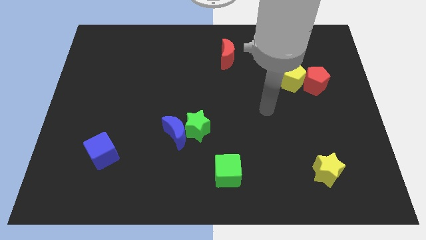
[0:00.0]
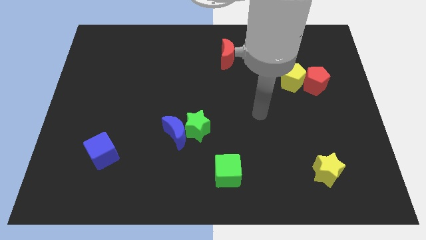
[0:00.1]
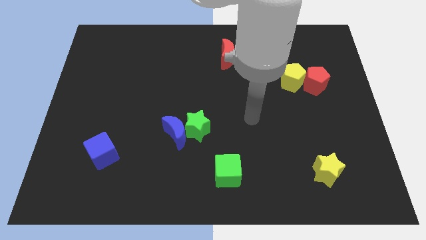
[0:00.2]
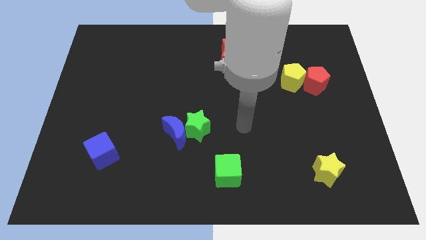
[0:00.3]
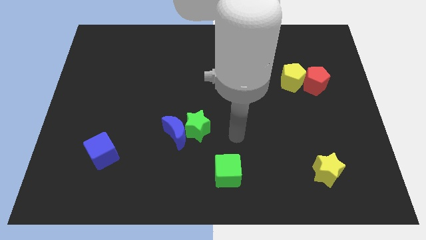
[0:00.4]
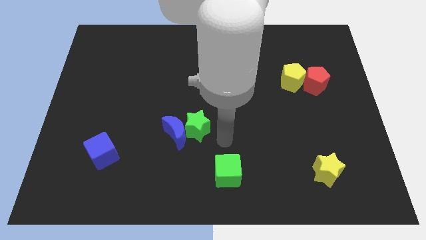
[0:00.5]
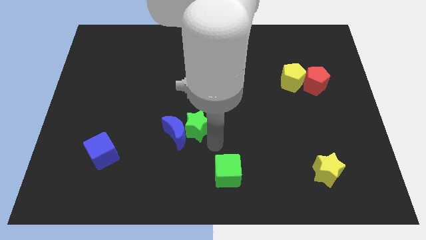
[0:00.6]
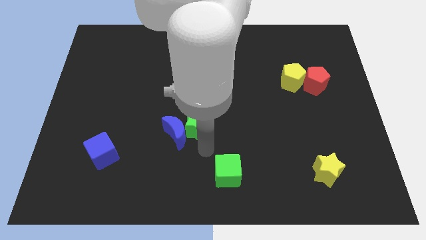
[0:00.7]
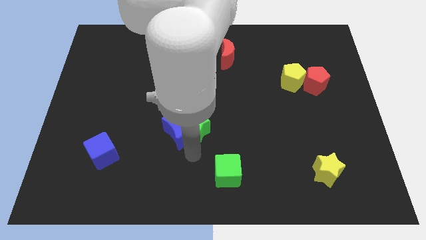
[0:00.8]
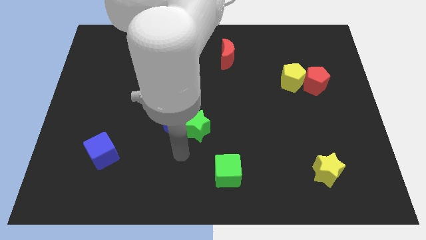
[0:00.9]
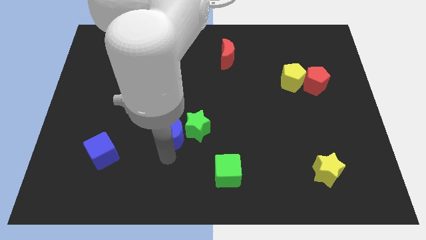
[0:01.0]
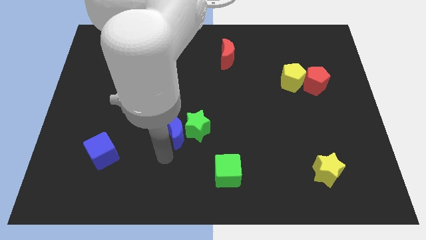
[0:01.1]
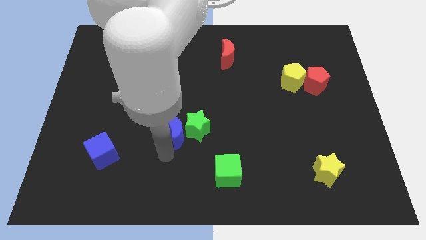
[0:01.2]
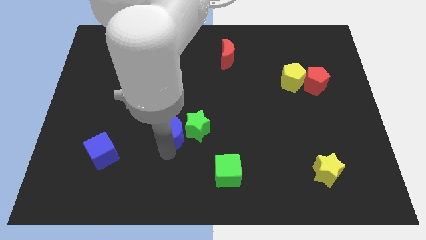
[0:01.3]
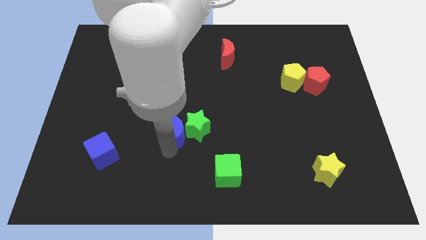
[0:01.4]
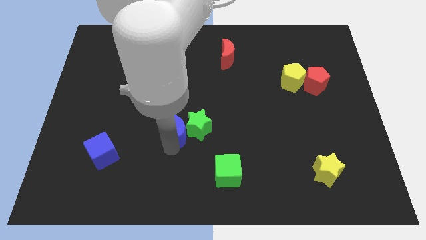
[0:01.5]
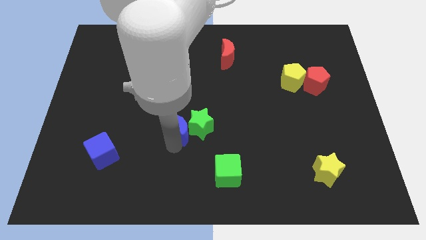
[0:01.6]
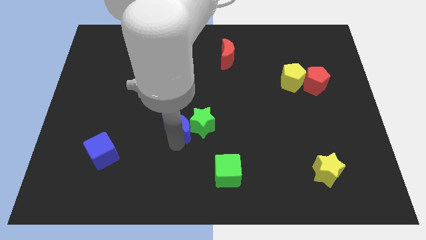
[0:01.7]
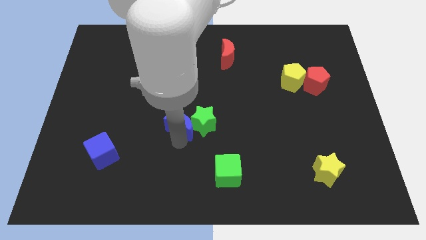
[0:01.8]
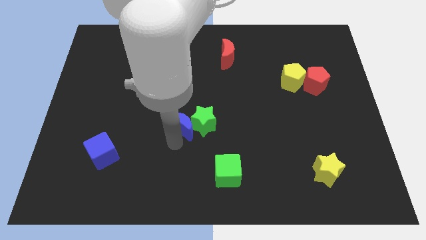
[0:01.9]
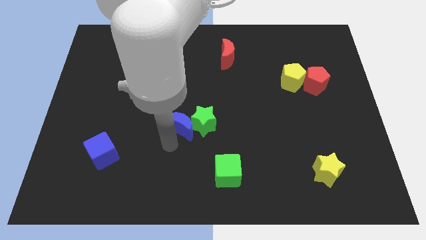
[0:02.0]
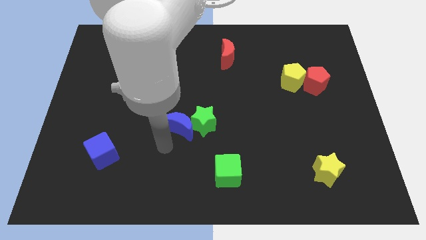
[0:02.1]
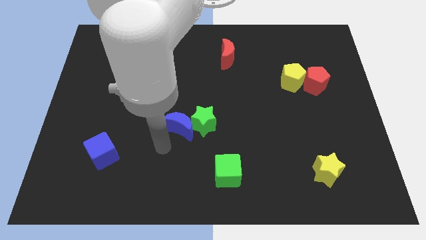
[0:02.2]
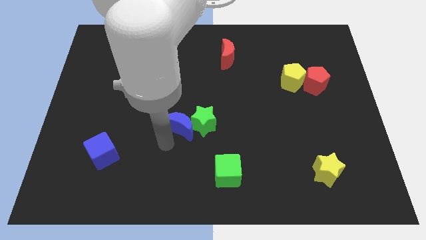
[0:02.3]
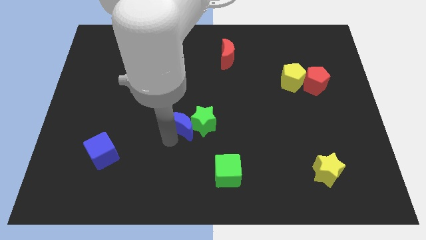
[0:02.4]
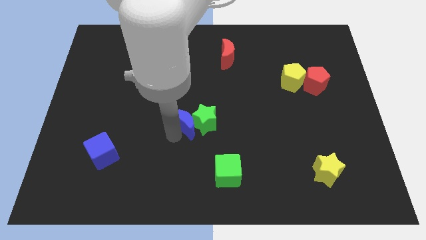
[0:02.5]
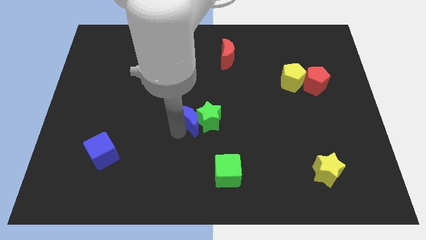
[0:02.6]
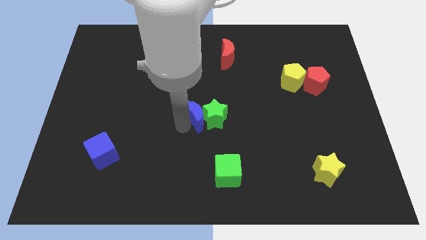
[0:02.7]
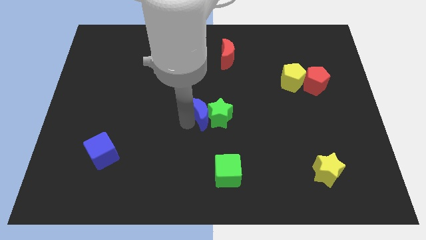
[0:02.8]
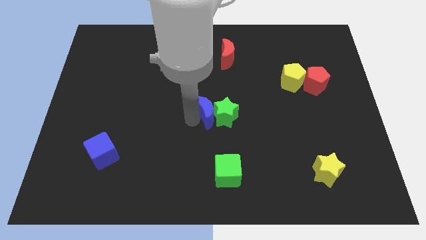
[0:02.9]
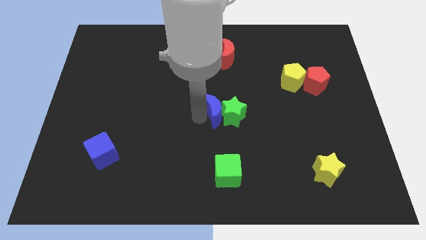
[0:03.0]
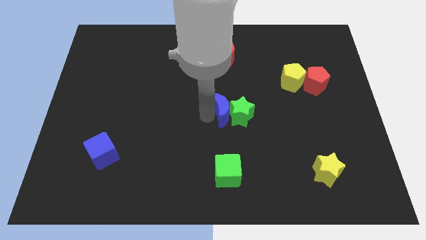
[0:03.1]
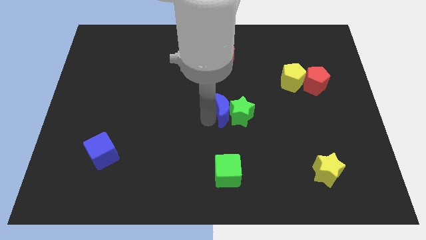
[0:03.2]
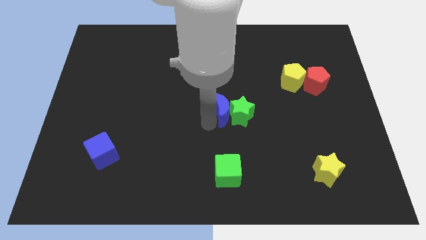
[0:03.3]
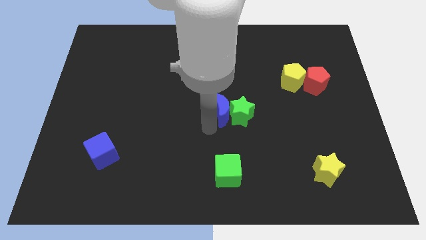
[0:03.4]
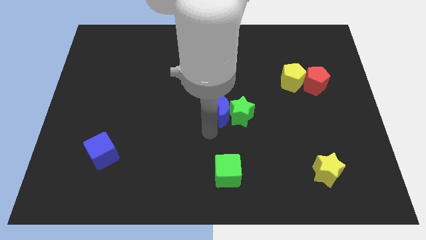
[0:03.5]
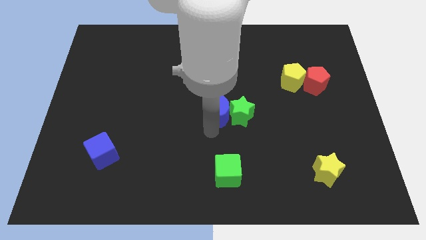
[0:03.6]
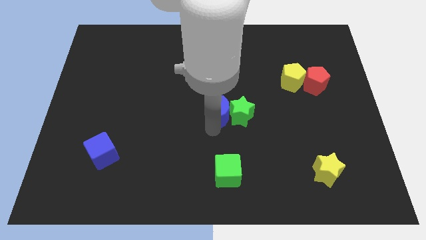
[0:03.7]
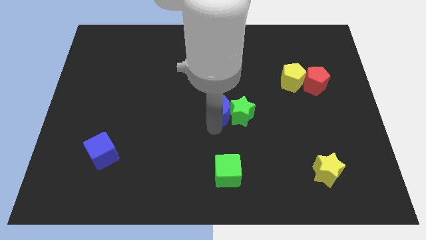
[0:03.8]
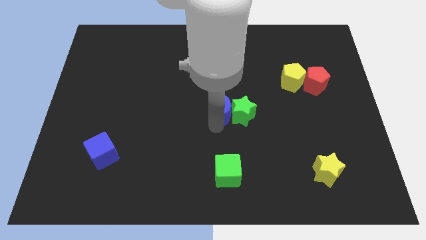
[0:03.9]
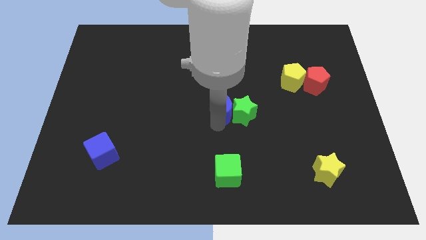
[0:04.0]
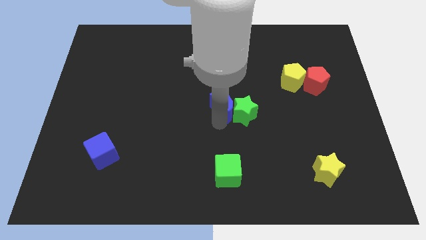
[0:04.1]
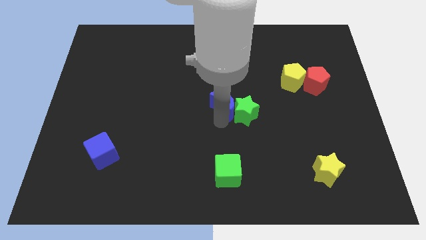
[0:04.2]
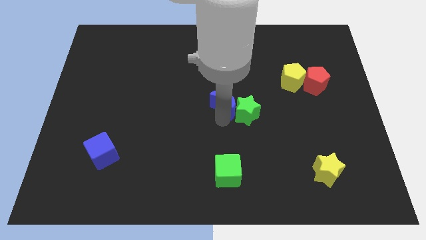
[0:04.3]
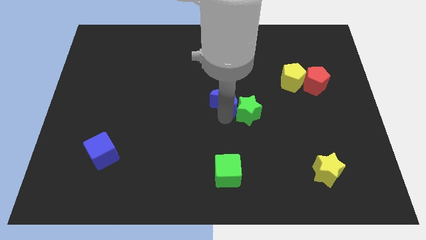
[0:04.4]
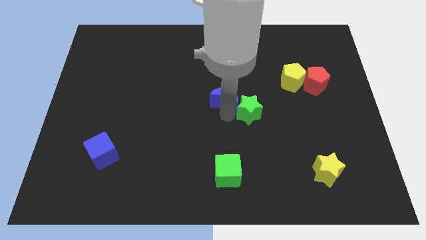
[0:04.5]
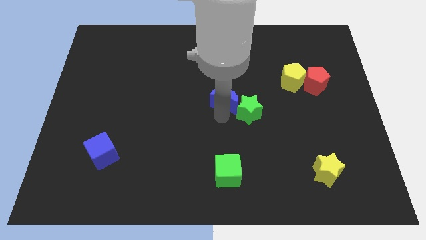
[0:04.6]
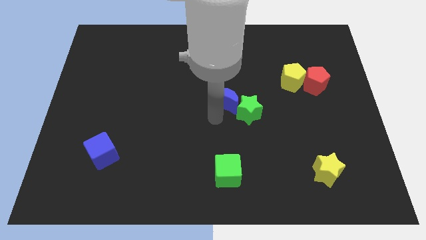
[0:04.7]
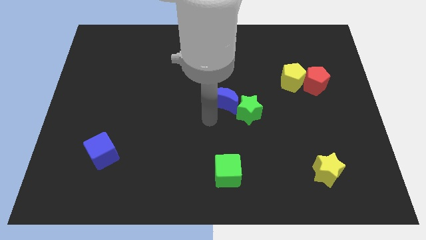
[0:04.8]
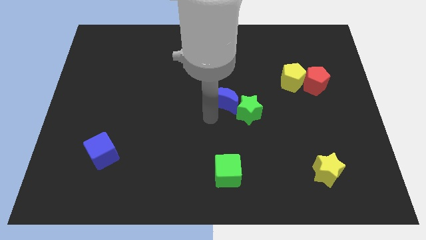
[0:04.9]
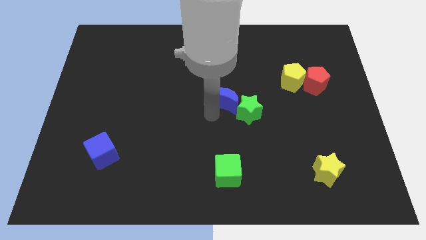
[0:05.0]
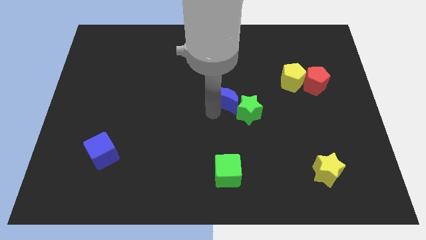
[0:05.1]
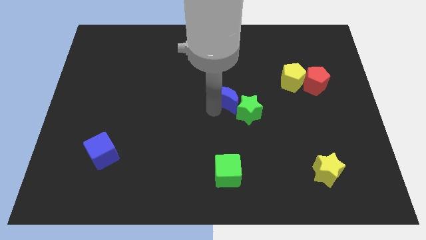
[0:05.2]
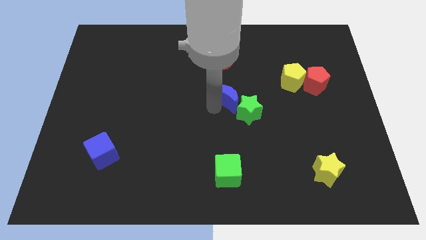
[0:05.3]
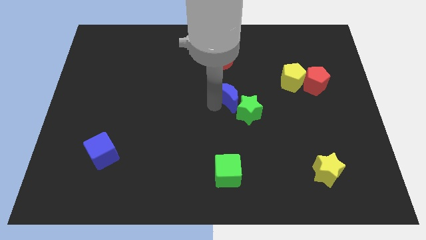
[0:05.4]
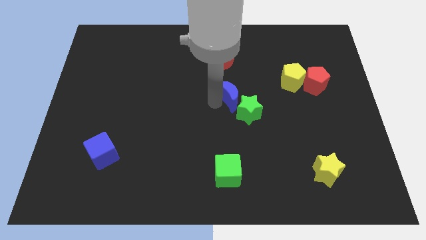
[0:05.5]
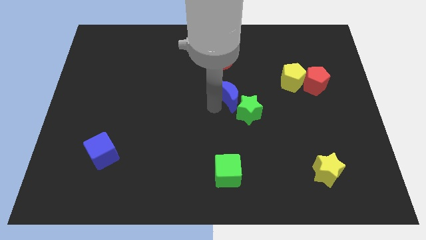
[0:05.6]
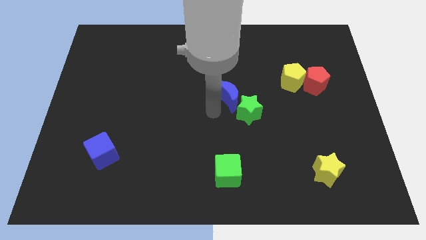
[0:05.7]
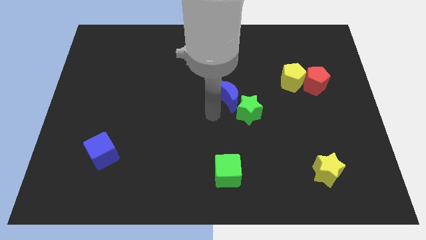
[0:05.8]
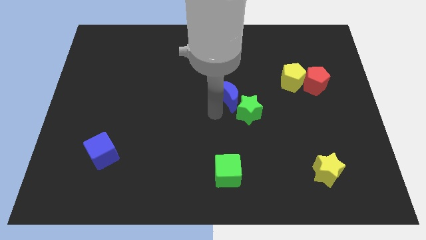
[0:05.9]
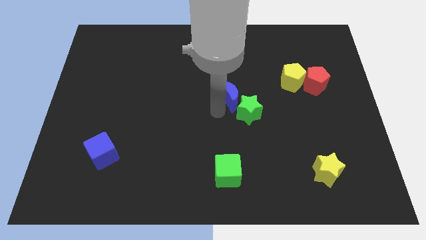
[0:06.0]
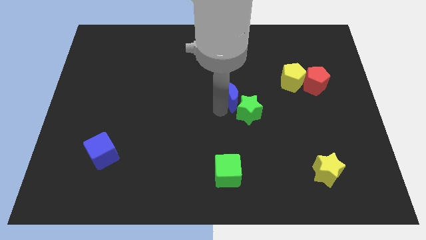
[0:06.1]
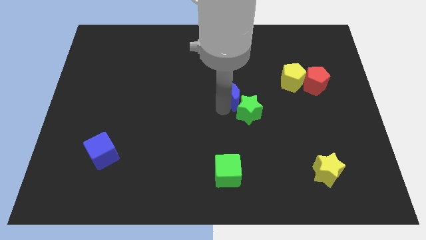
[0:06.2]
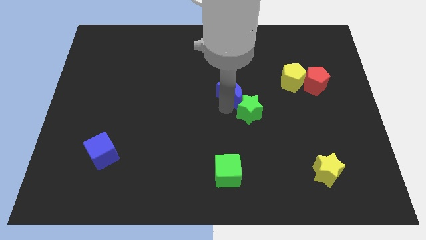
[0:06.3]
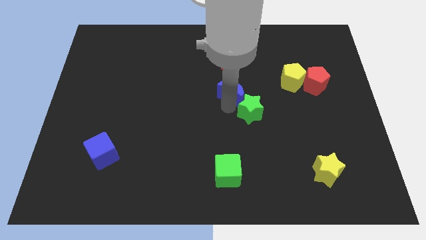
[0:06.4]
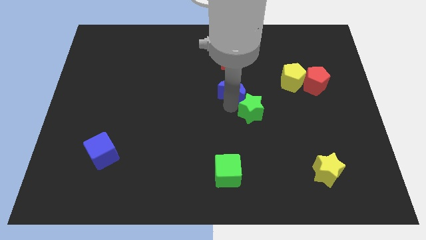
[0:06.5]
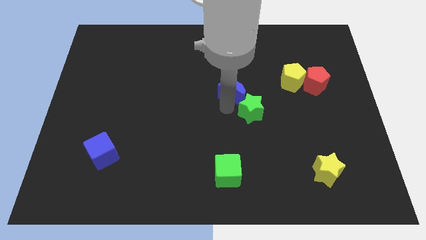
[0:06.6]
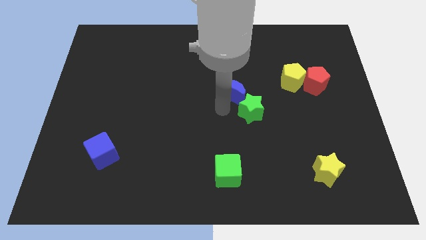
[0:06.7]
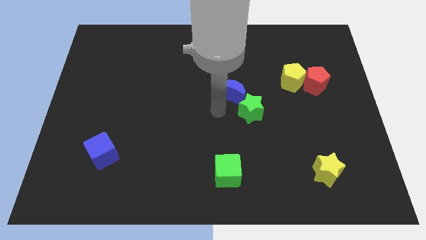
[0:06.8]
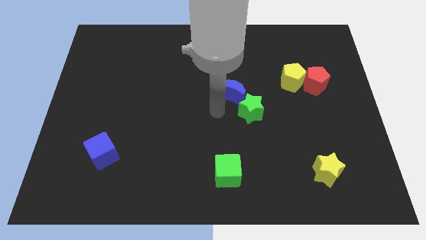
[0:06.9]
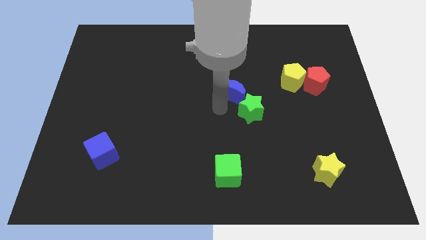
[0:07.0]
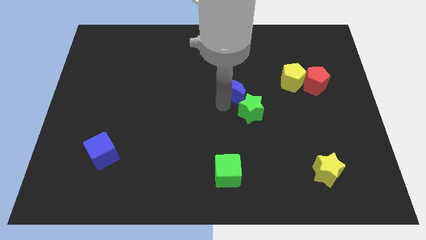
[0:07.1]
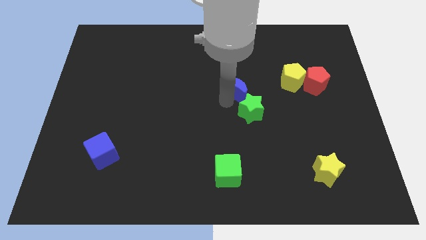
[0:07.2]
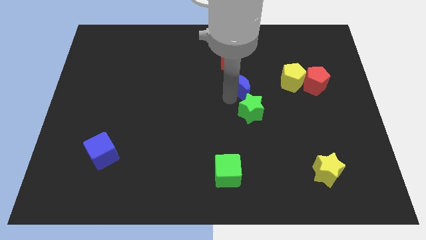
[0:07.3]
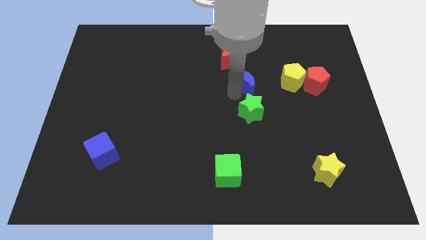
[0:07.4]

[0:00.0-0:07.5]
push the blue moon up and to the right

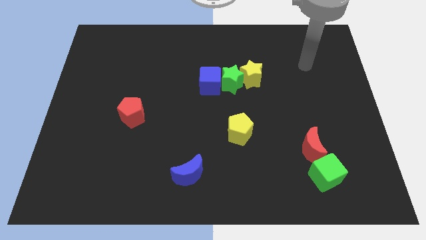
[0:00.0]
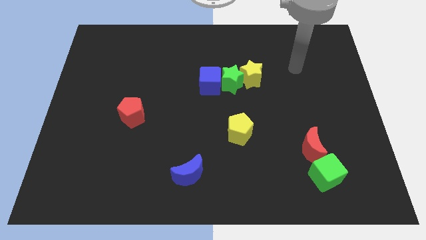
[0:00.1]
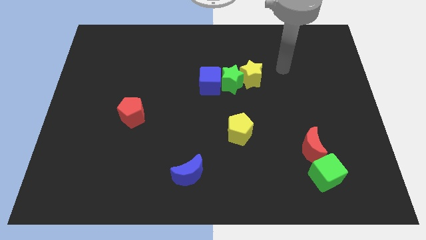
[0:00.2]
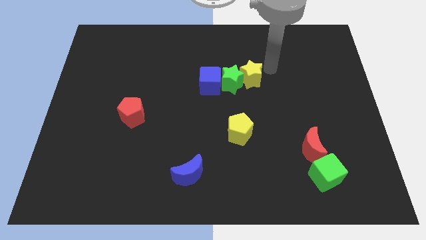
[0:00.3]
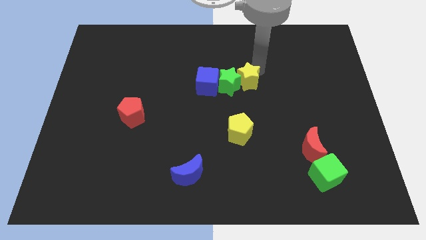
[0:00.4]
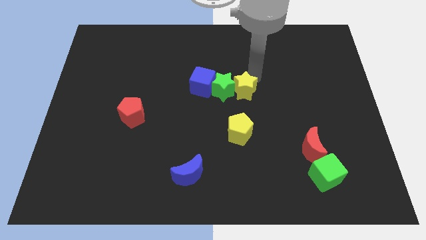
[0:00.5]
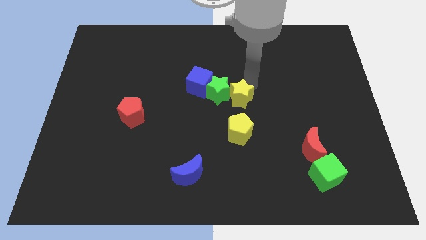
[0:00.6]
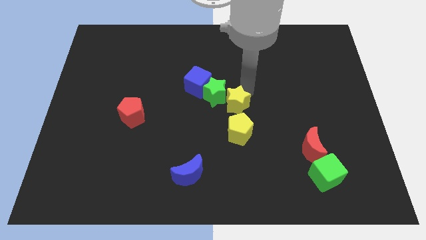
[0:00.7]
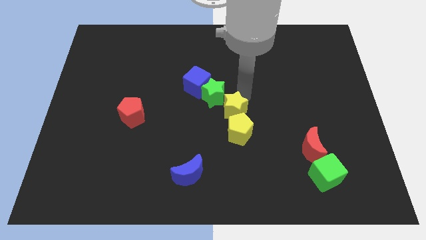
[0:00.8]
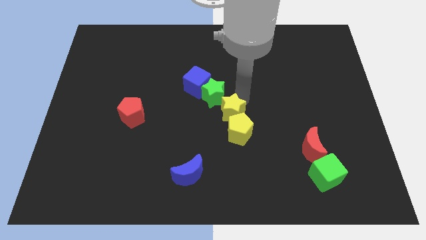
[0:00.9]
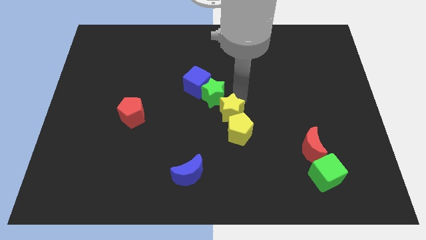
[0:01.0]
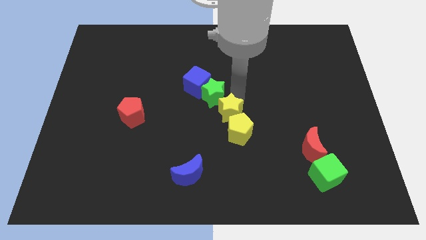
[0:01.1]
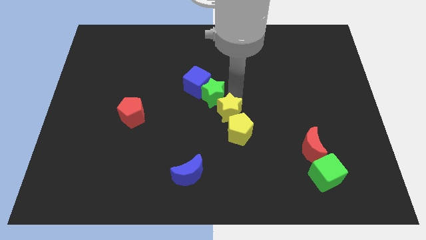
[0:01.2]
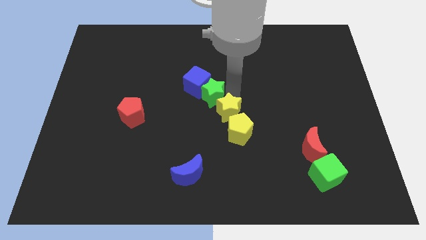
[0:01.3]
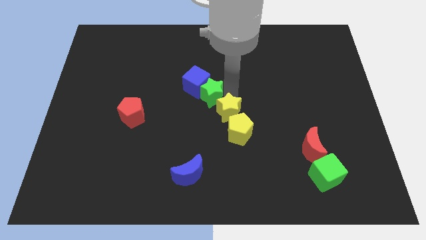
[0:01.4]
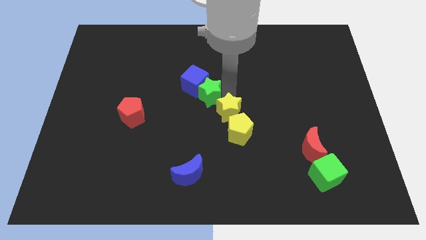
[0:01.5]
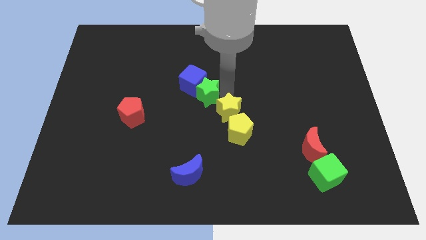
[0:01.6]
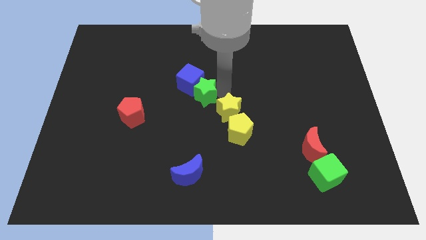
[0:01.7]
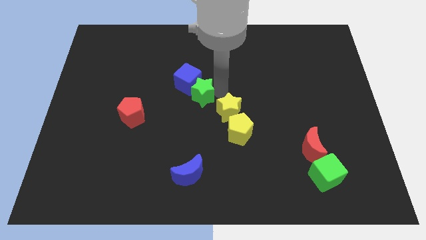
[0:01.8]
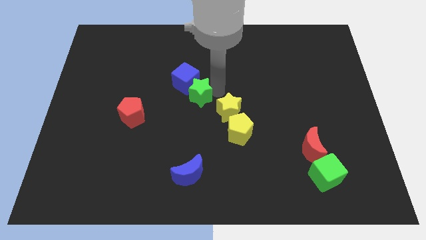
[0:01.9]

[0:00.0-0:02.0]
slightly slide the green star left
